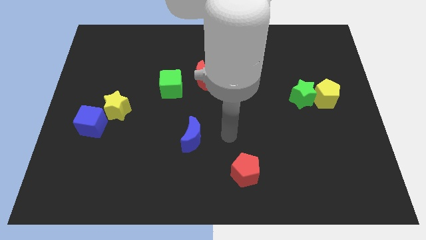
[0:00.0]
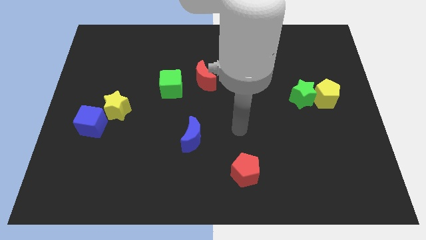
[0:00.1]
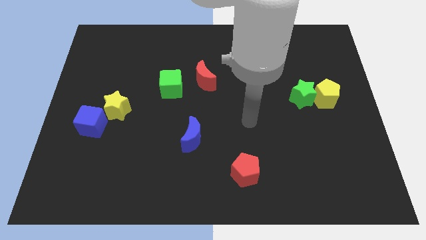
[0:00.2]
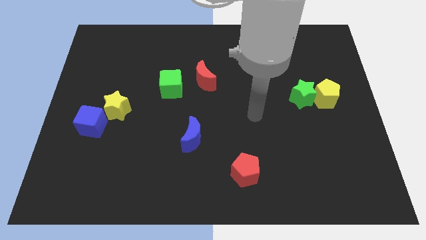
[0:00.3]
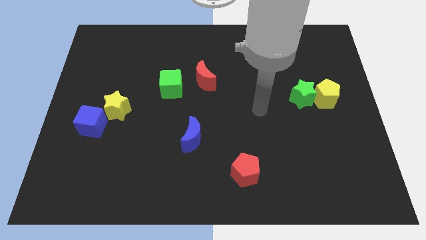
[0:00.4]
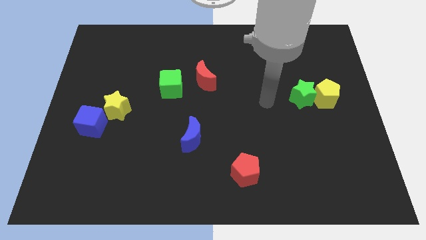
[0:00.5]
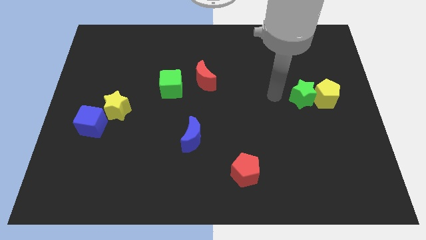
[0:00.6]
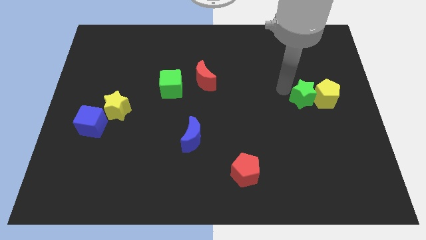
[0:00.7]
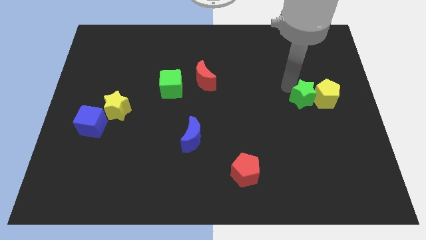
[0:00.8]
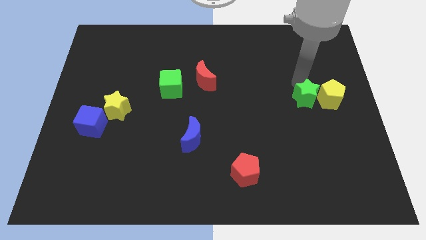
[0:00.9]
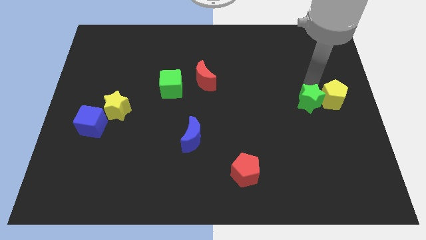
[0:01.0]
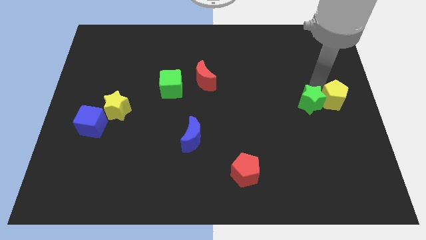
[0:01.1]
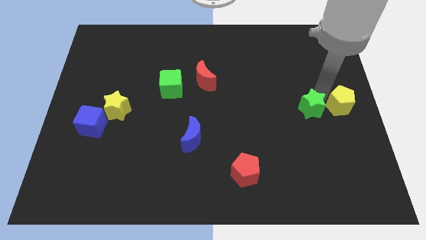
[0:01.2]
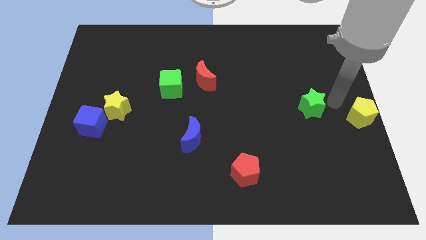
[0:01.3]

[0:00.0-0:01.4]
separate the green star from the yellow pentagon

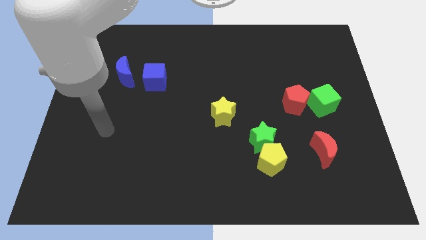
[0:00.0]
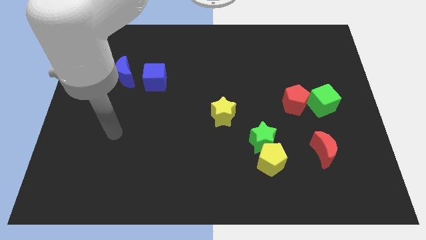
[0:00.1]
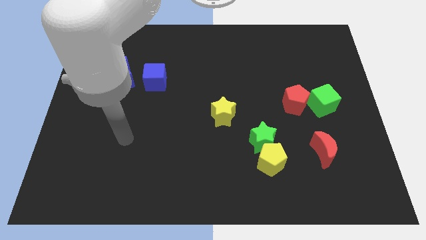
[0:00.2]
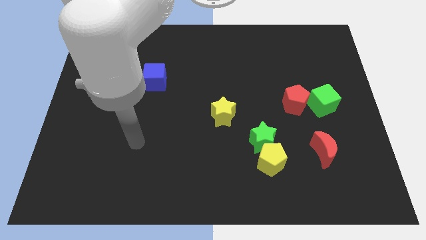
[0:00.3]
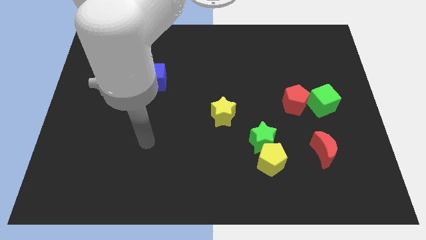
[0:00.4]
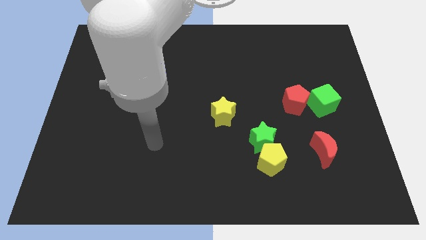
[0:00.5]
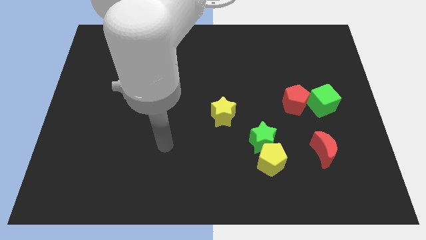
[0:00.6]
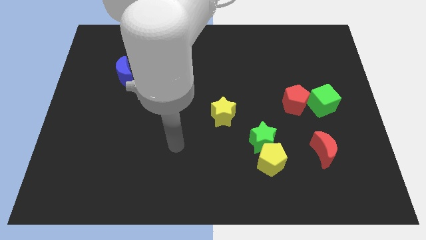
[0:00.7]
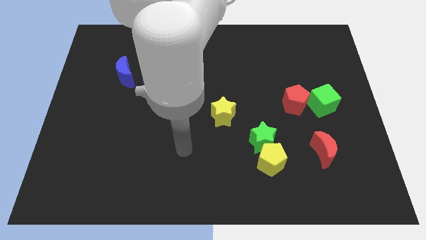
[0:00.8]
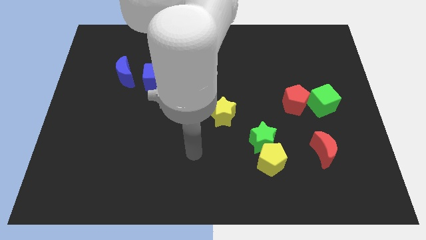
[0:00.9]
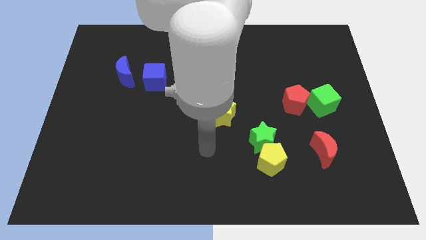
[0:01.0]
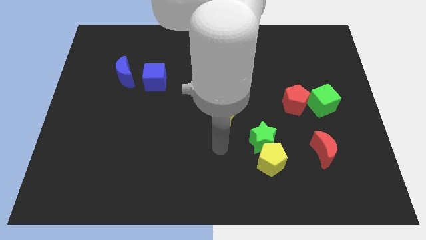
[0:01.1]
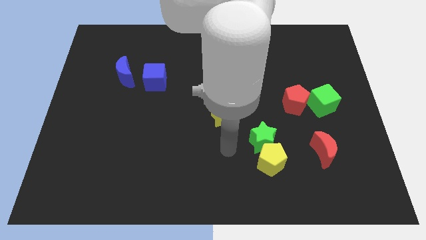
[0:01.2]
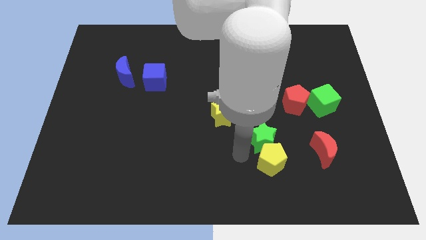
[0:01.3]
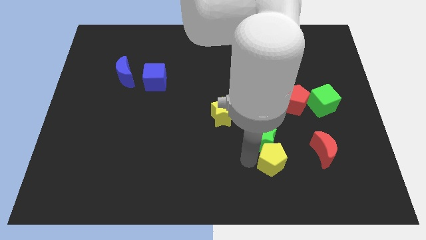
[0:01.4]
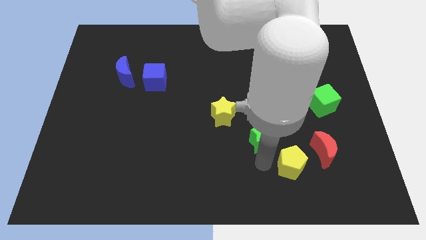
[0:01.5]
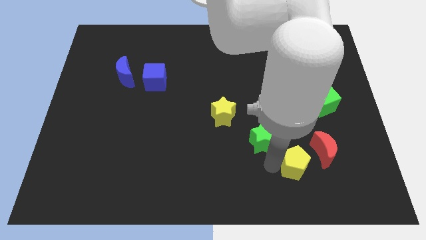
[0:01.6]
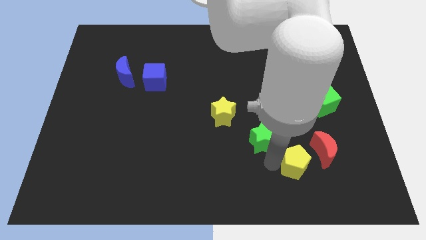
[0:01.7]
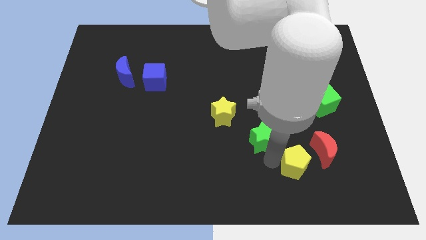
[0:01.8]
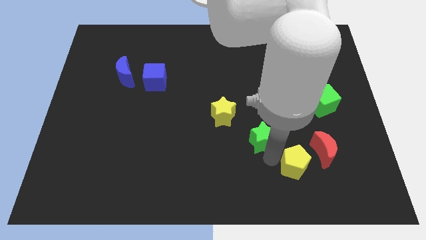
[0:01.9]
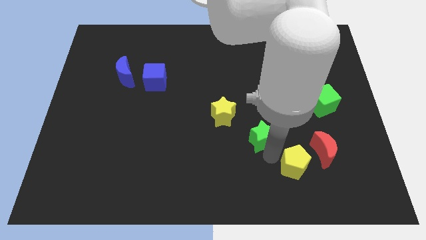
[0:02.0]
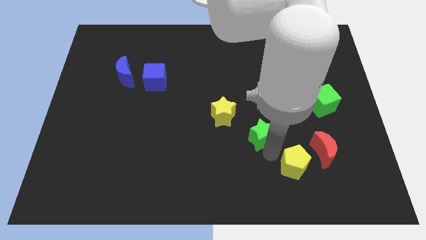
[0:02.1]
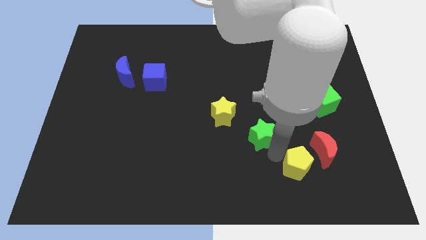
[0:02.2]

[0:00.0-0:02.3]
move the green star away from the yellow pentagon

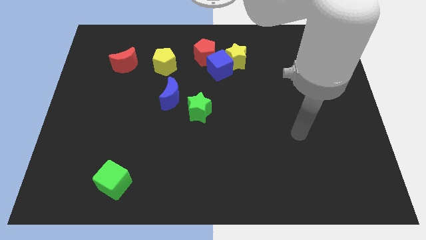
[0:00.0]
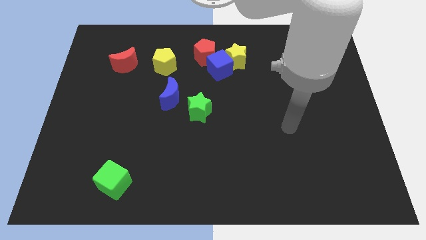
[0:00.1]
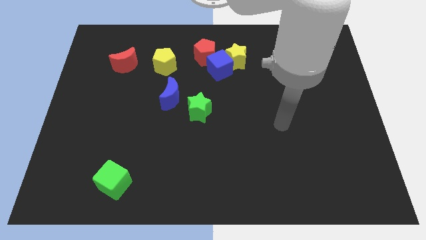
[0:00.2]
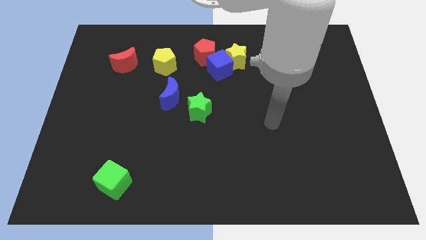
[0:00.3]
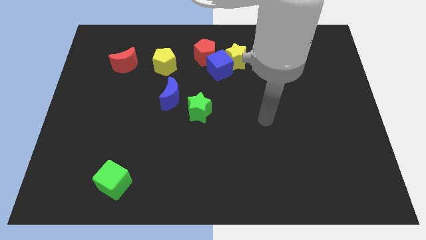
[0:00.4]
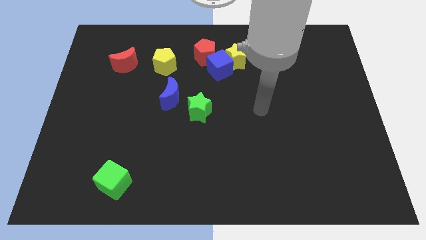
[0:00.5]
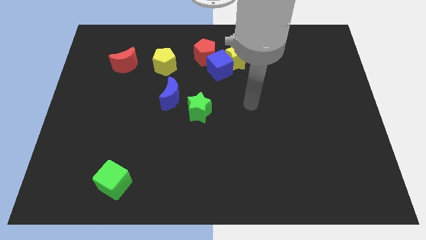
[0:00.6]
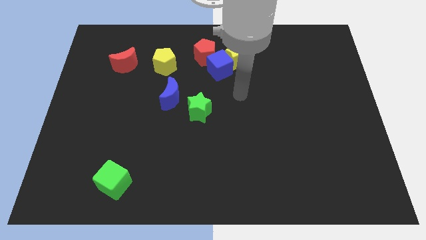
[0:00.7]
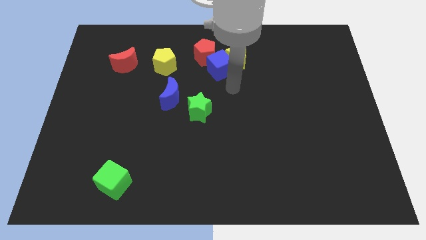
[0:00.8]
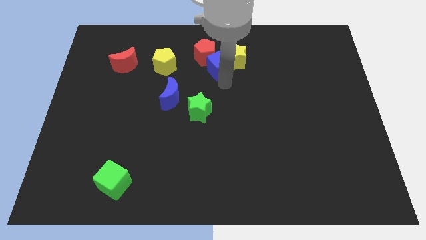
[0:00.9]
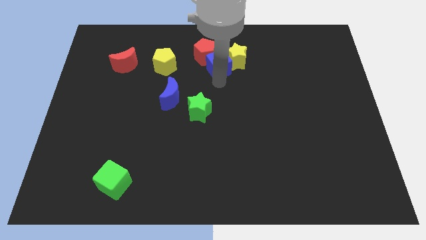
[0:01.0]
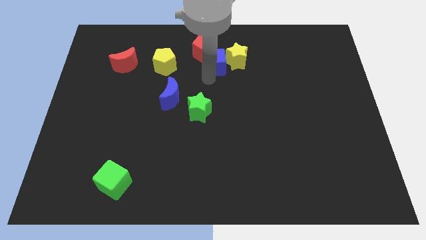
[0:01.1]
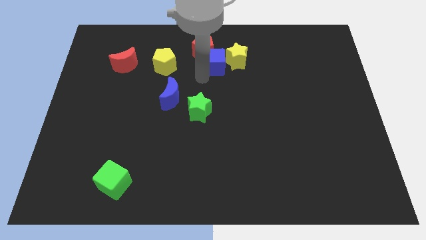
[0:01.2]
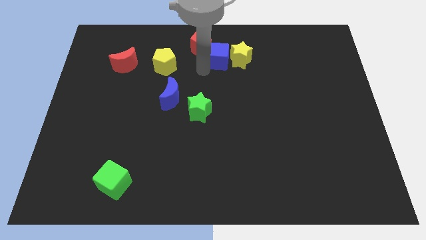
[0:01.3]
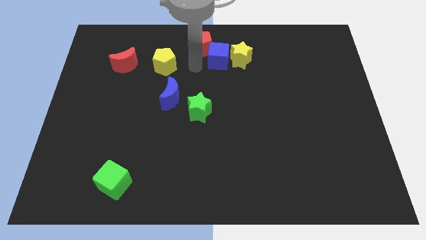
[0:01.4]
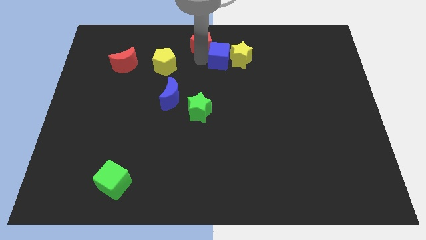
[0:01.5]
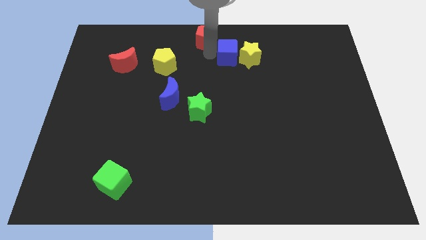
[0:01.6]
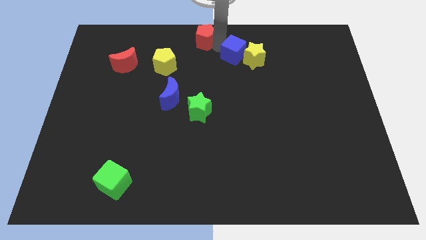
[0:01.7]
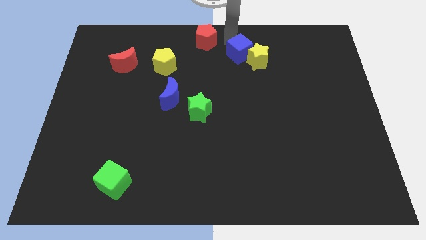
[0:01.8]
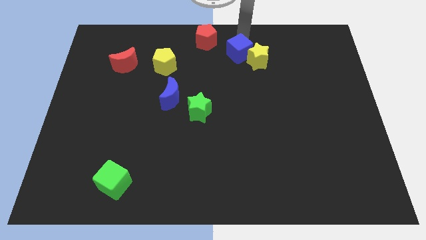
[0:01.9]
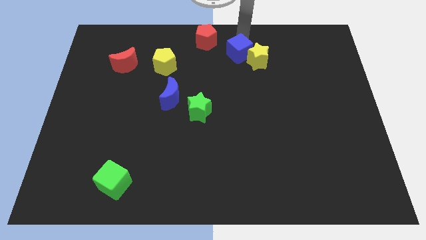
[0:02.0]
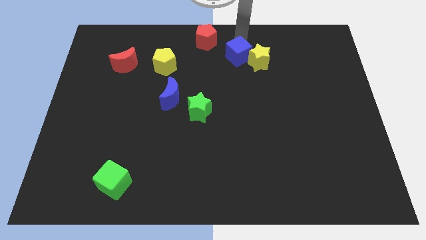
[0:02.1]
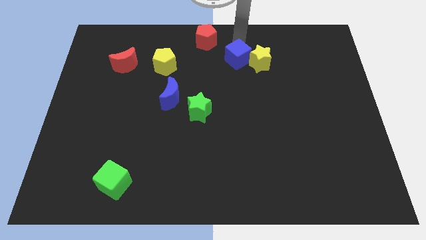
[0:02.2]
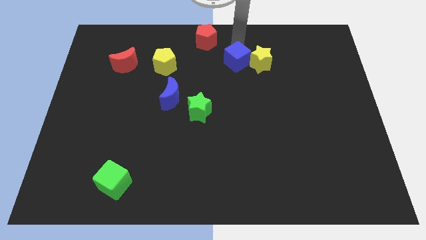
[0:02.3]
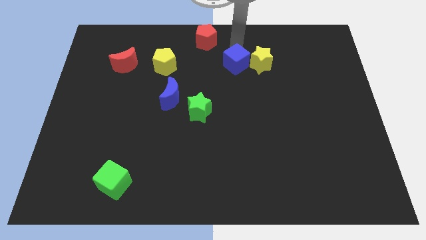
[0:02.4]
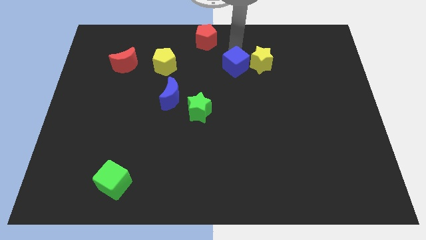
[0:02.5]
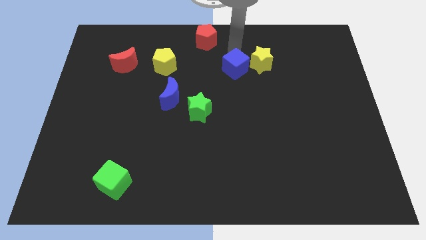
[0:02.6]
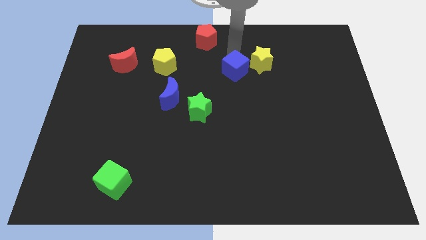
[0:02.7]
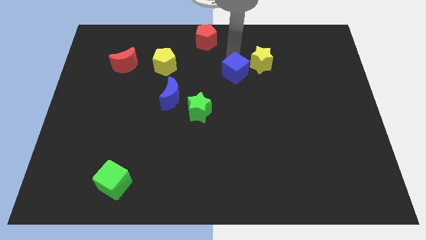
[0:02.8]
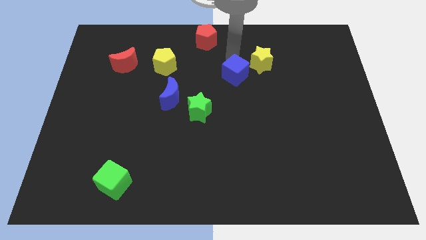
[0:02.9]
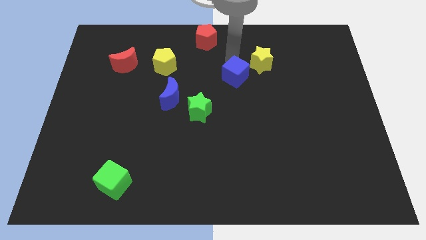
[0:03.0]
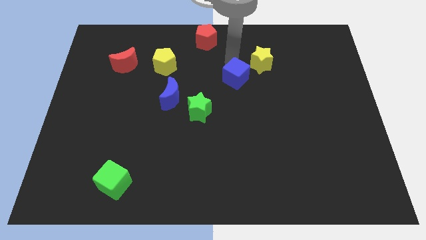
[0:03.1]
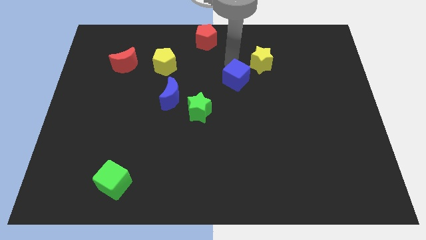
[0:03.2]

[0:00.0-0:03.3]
pull the blue cube apart from the yellow star and red pentagon

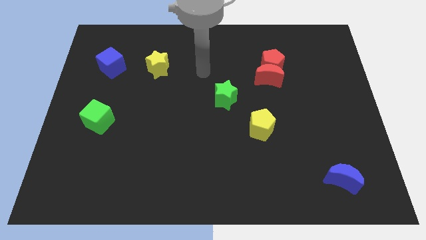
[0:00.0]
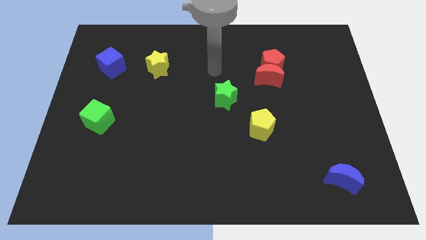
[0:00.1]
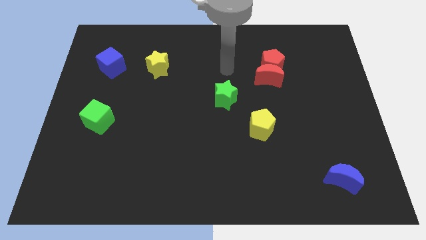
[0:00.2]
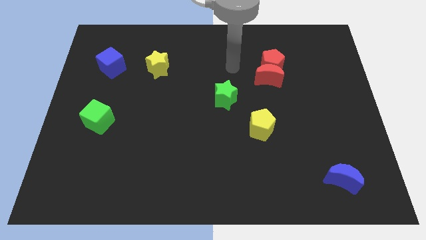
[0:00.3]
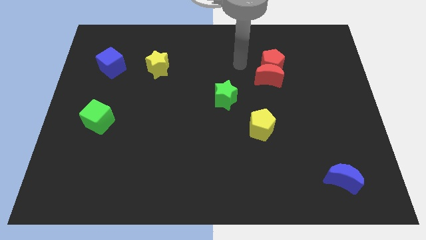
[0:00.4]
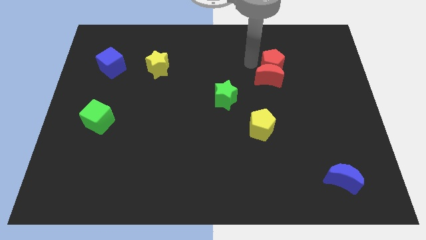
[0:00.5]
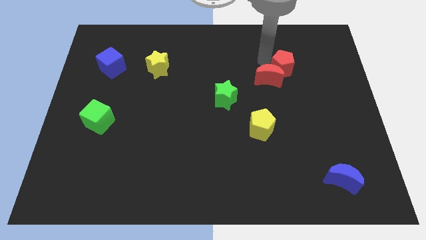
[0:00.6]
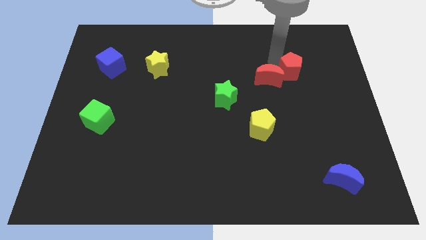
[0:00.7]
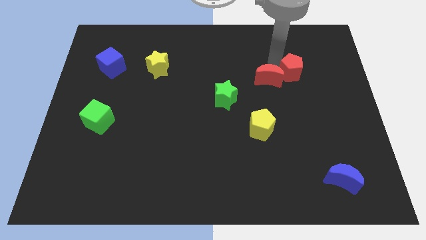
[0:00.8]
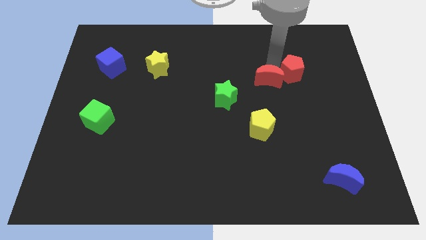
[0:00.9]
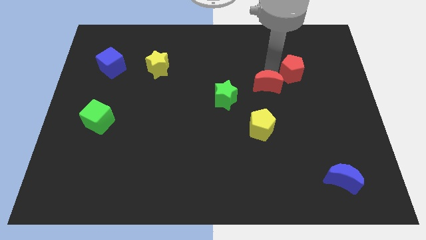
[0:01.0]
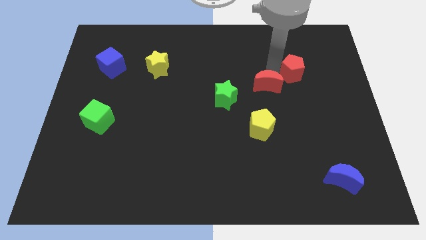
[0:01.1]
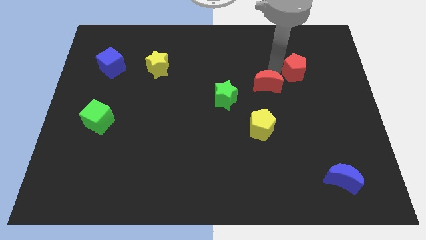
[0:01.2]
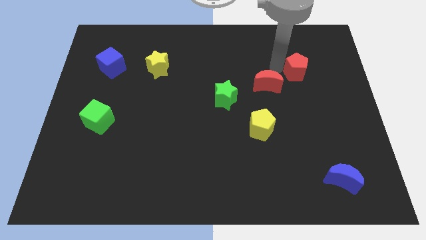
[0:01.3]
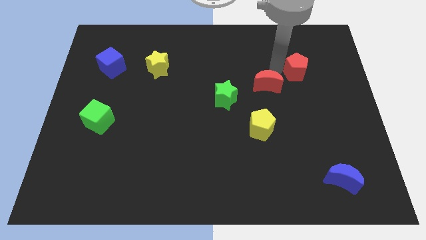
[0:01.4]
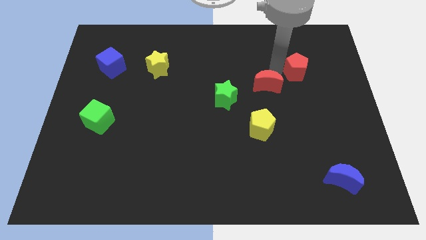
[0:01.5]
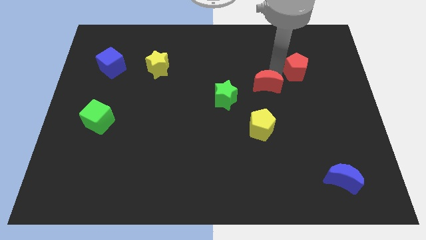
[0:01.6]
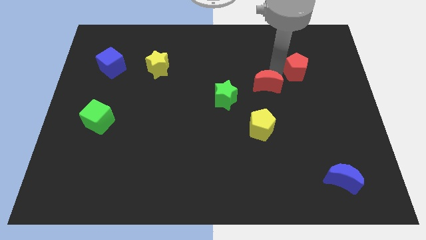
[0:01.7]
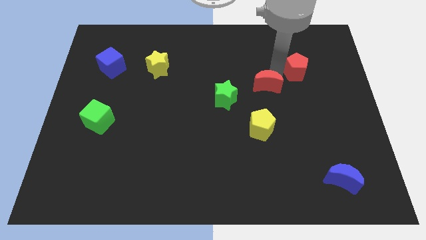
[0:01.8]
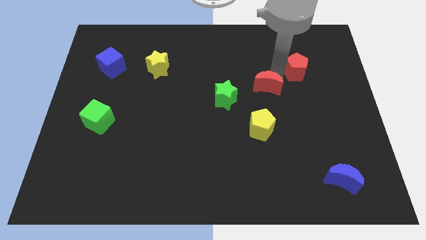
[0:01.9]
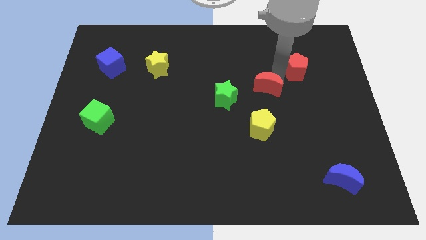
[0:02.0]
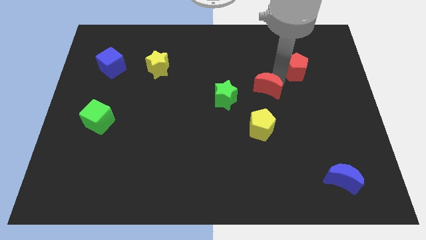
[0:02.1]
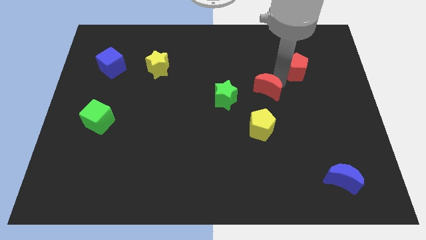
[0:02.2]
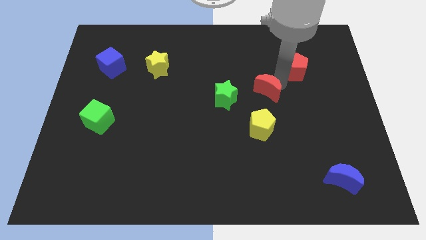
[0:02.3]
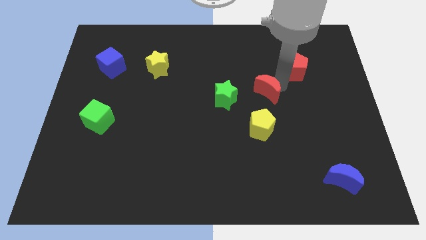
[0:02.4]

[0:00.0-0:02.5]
move the red moon away from the red pentagon

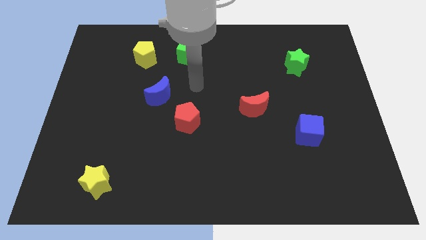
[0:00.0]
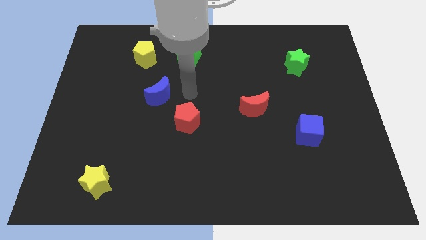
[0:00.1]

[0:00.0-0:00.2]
move the red pentagon away from the blue moon
